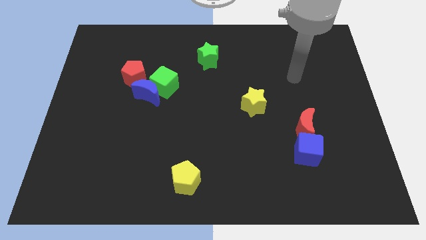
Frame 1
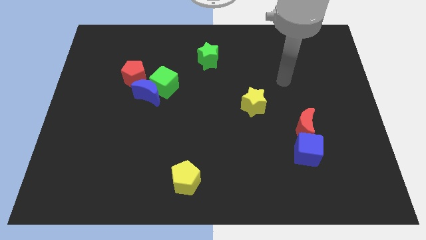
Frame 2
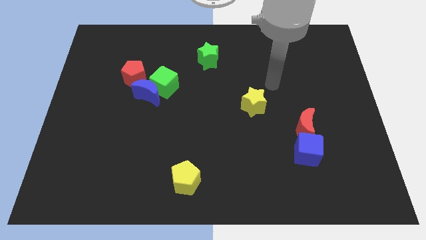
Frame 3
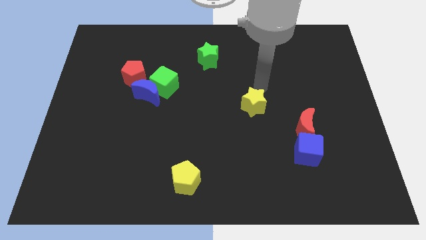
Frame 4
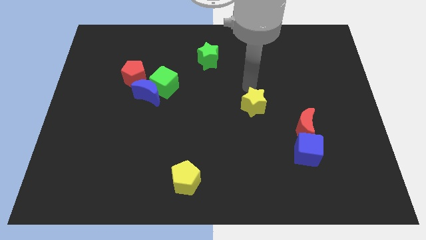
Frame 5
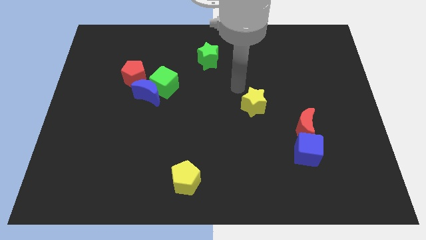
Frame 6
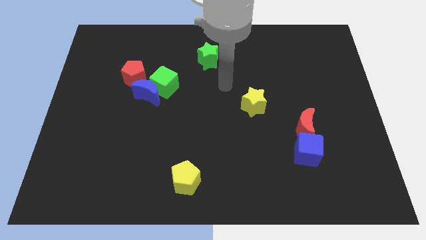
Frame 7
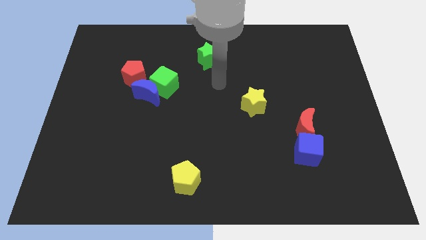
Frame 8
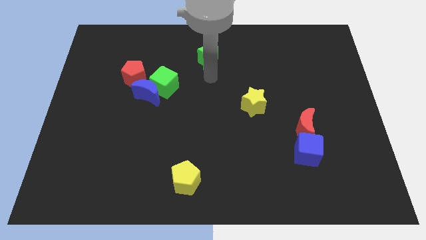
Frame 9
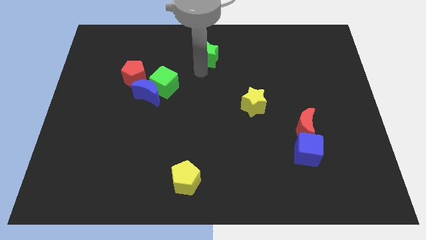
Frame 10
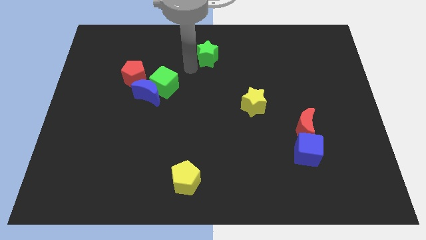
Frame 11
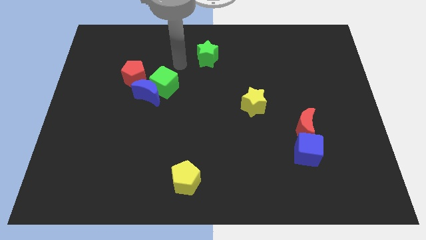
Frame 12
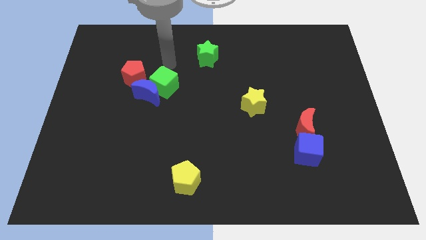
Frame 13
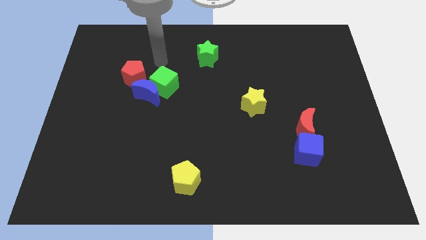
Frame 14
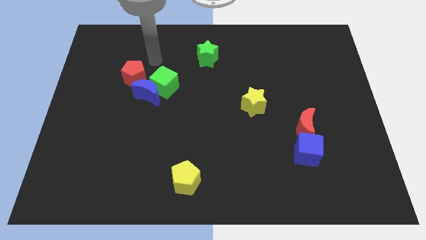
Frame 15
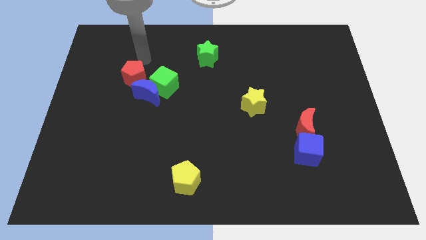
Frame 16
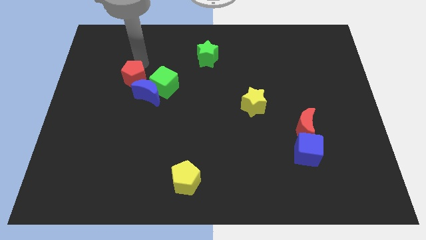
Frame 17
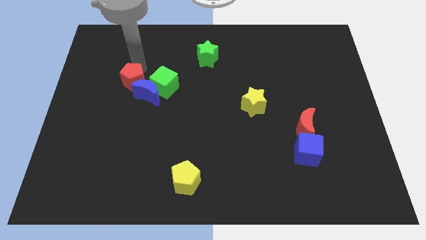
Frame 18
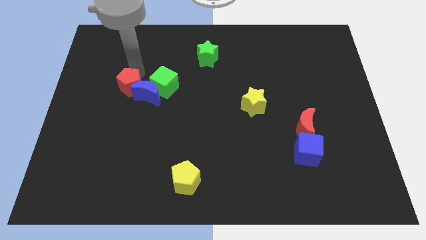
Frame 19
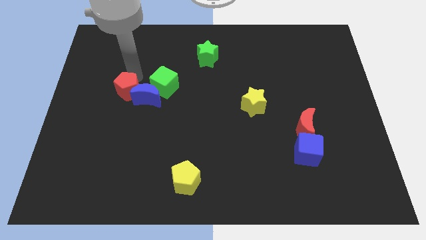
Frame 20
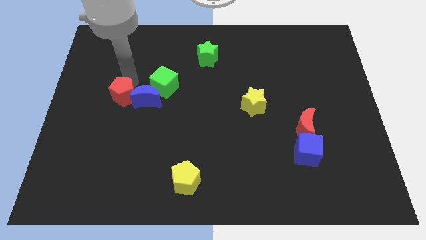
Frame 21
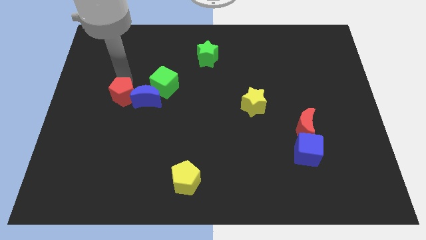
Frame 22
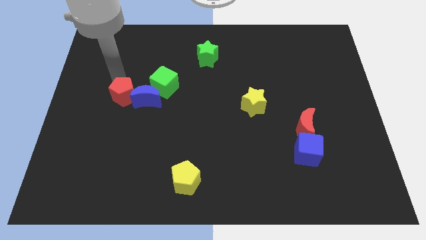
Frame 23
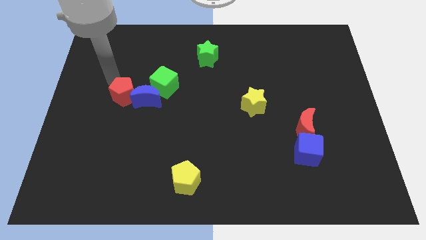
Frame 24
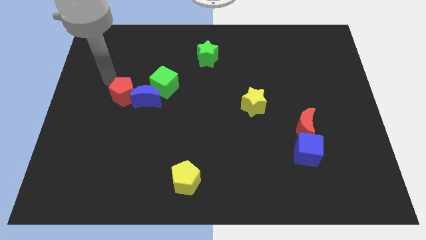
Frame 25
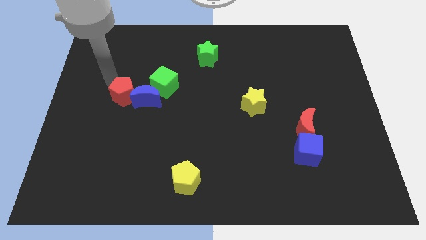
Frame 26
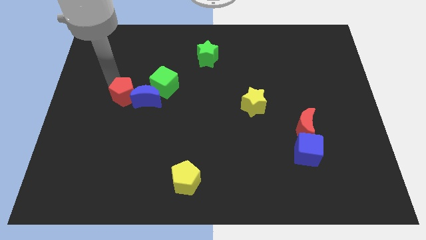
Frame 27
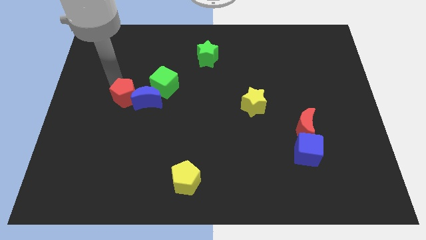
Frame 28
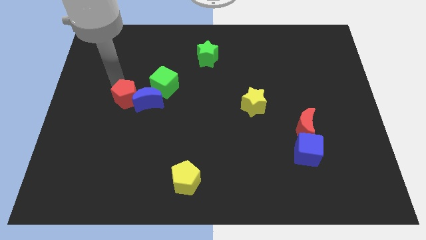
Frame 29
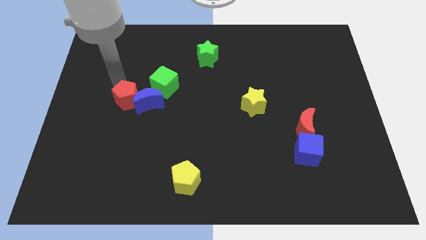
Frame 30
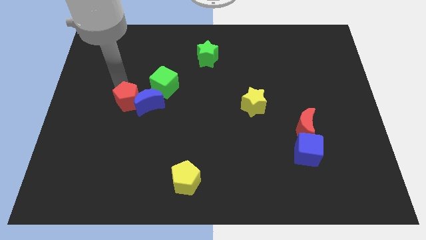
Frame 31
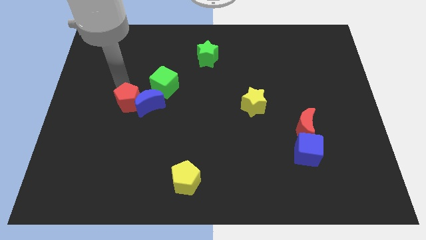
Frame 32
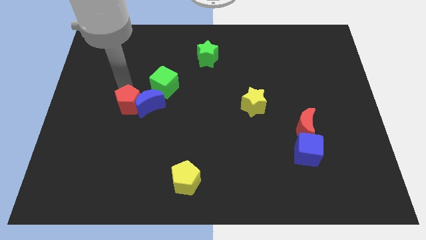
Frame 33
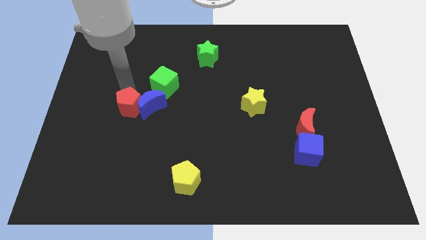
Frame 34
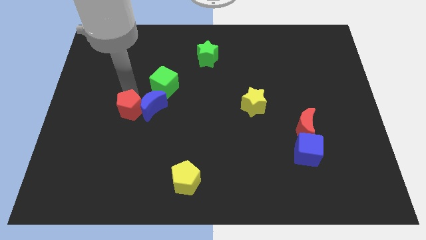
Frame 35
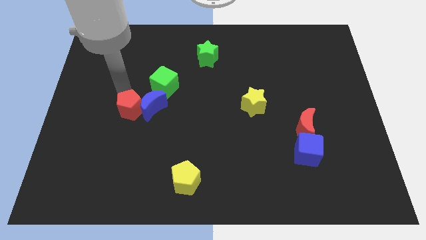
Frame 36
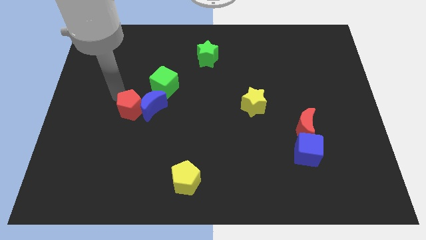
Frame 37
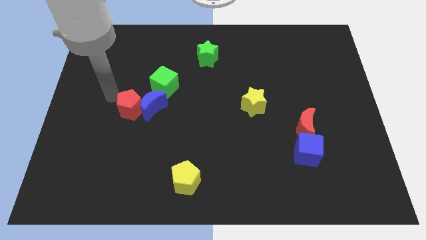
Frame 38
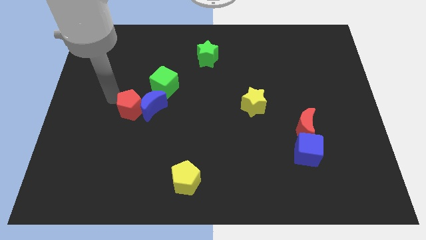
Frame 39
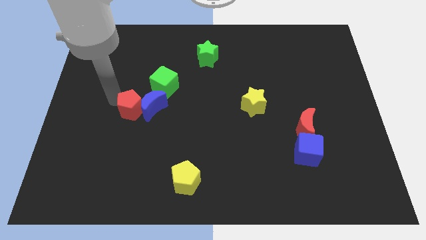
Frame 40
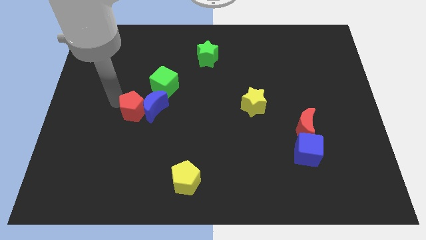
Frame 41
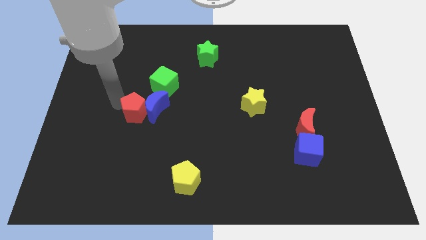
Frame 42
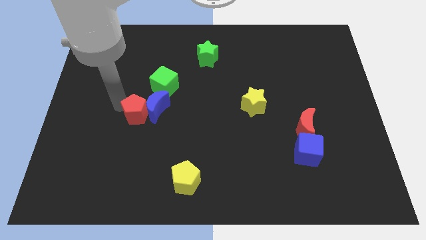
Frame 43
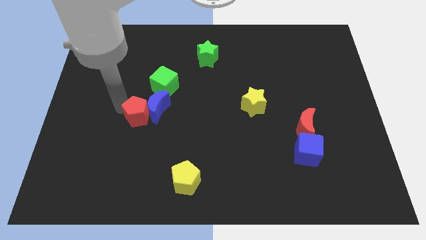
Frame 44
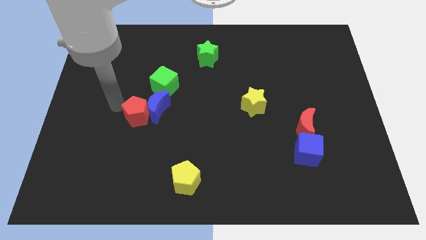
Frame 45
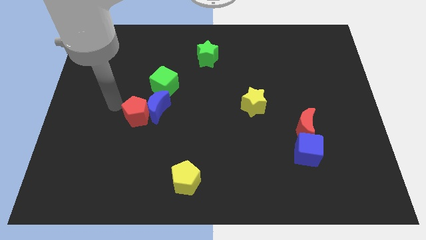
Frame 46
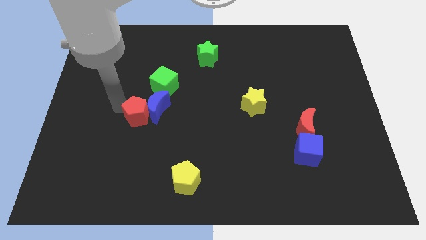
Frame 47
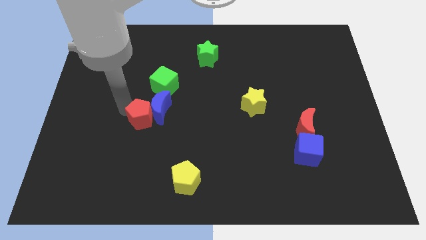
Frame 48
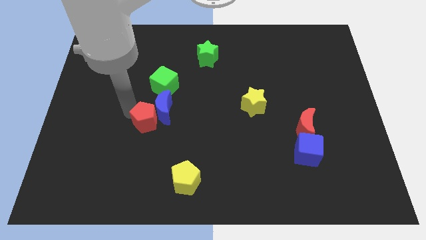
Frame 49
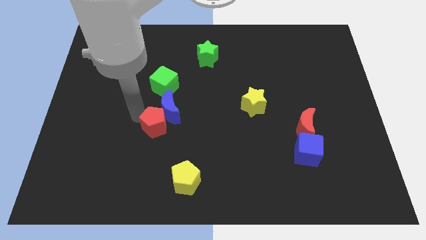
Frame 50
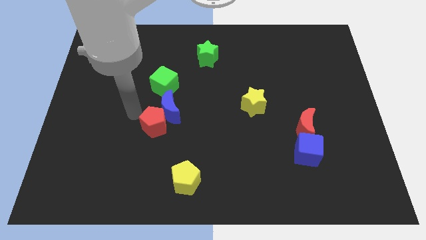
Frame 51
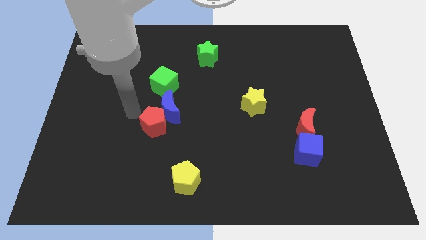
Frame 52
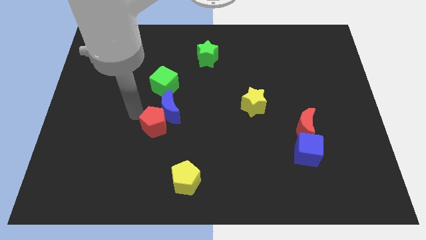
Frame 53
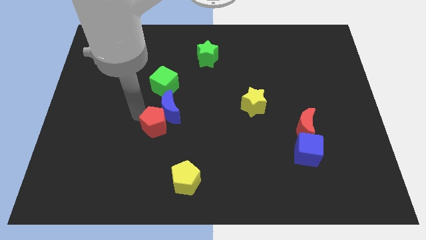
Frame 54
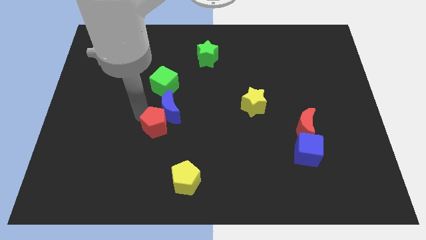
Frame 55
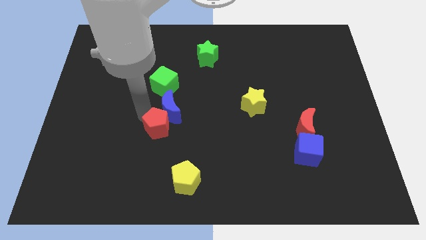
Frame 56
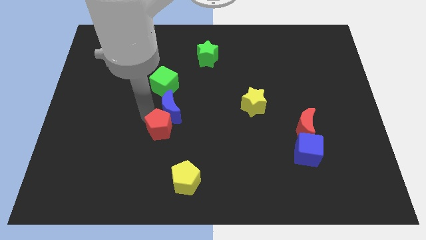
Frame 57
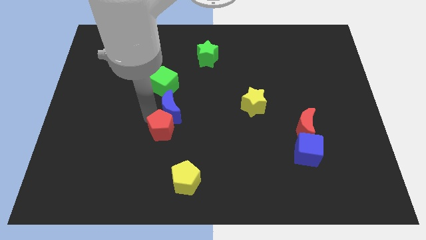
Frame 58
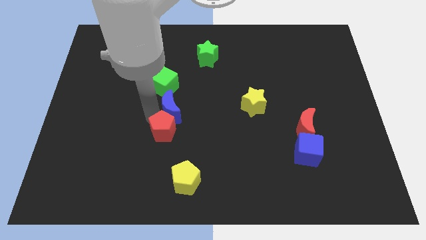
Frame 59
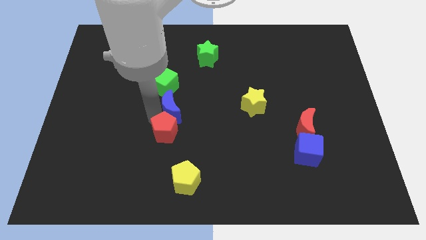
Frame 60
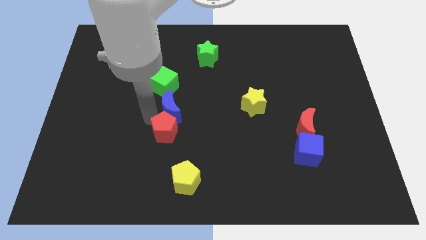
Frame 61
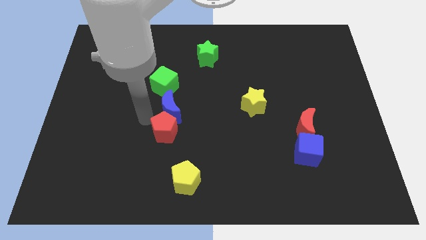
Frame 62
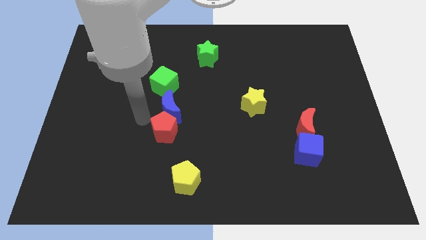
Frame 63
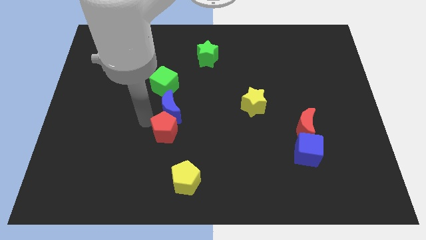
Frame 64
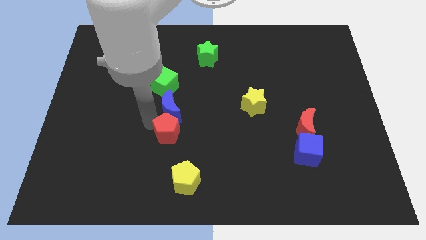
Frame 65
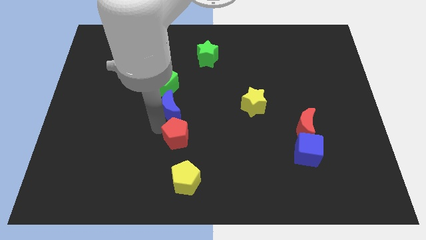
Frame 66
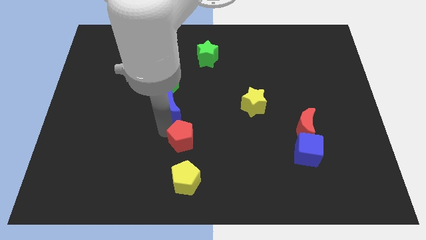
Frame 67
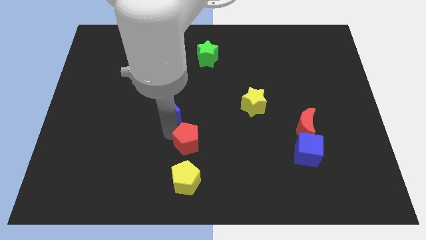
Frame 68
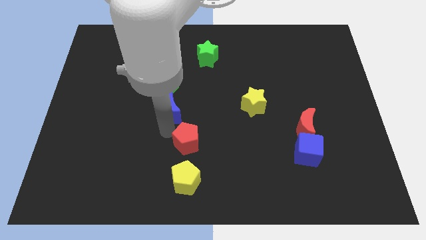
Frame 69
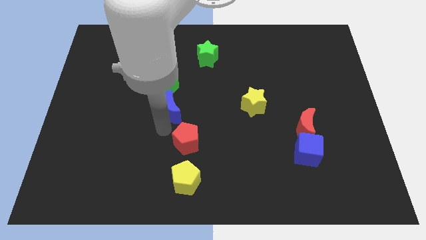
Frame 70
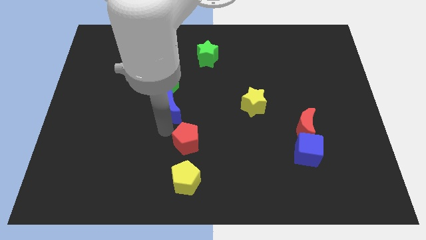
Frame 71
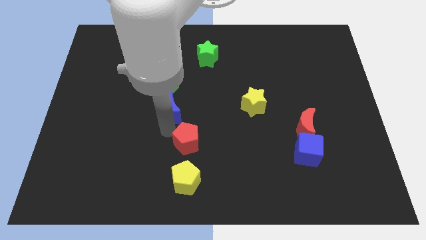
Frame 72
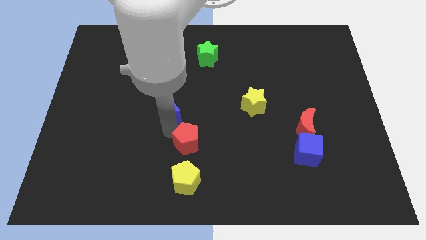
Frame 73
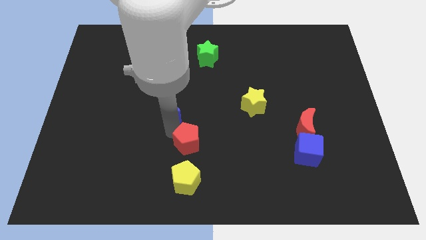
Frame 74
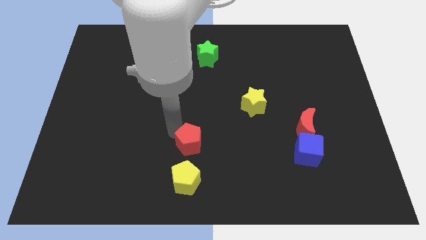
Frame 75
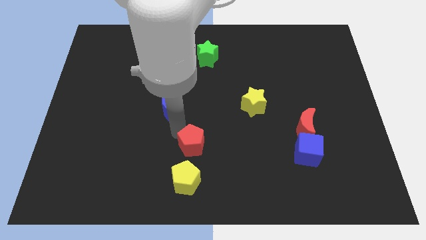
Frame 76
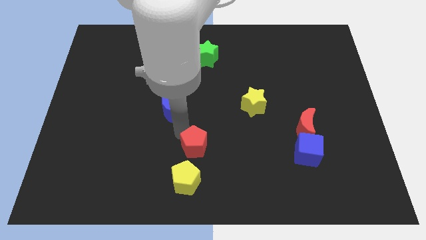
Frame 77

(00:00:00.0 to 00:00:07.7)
put the red pentagon diagonally up and to the right of the yellow pentagon
